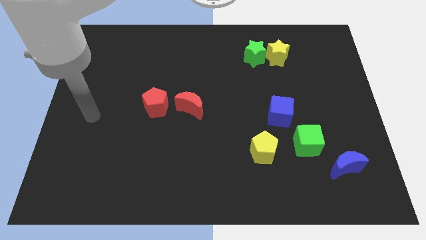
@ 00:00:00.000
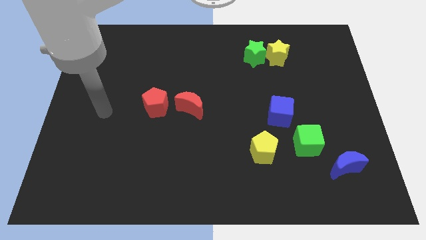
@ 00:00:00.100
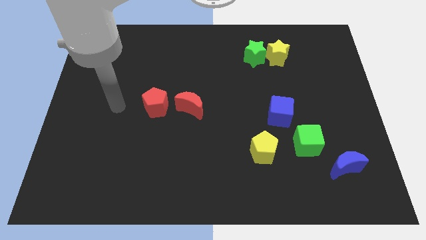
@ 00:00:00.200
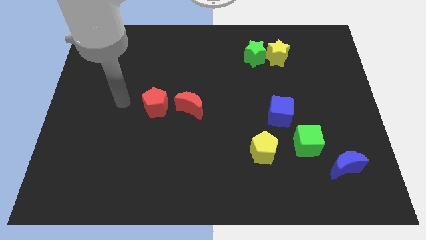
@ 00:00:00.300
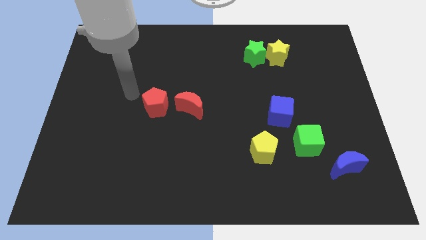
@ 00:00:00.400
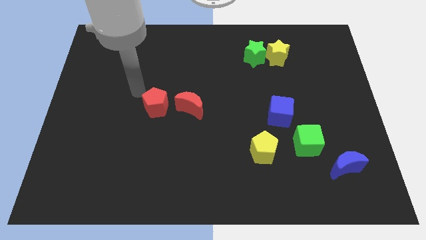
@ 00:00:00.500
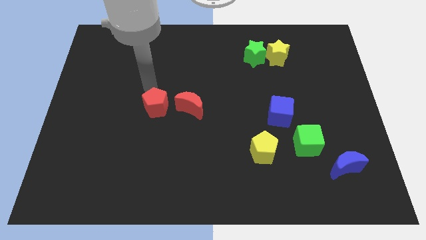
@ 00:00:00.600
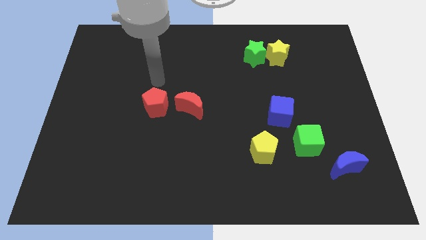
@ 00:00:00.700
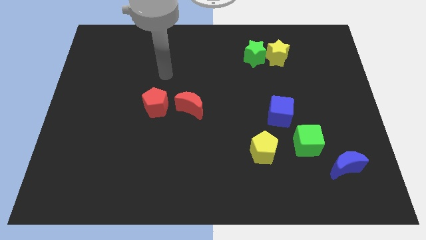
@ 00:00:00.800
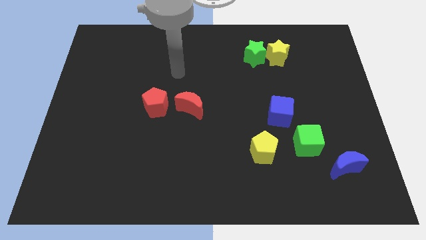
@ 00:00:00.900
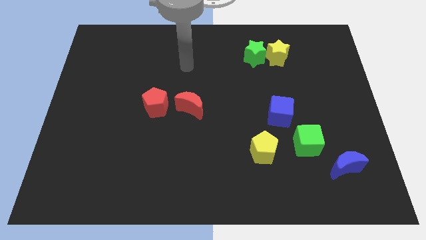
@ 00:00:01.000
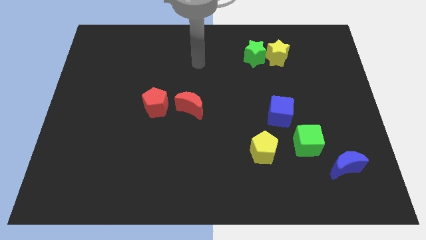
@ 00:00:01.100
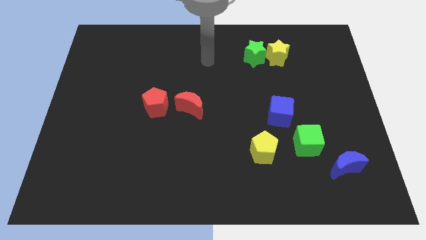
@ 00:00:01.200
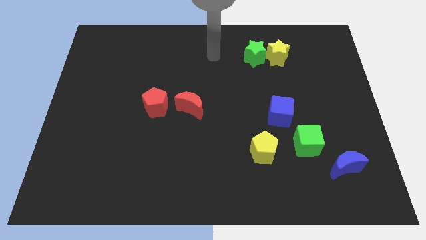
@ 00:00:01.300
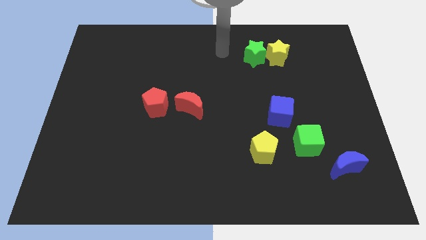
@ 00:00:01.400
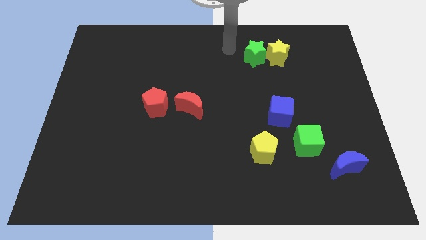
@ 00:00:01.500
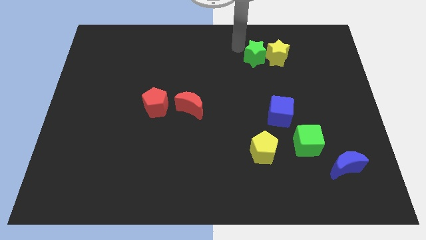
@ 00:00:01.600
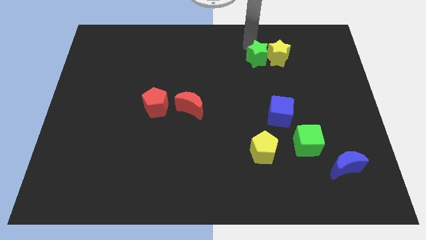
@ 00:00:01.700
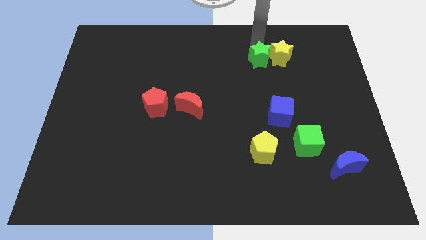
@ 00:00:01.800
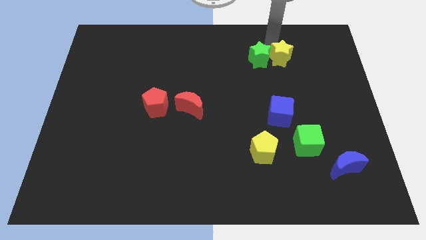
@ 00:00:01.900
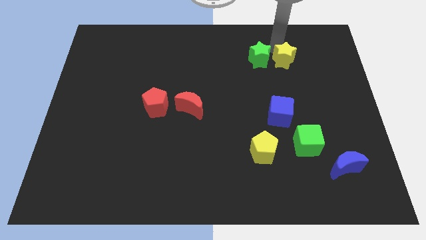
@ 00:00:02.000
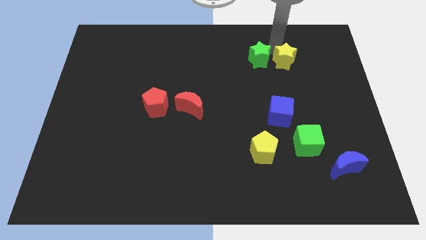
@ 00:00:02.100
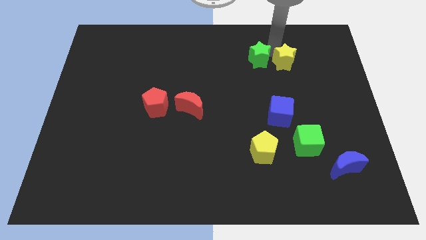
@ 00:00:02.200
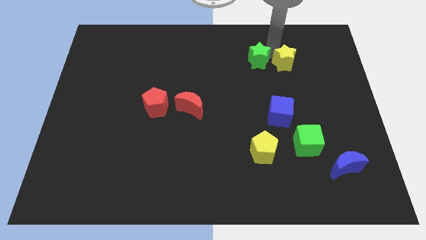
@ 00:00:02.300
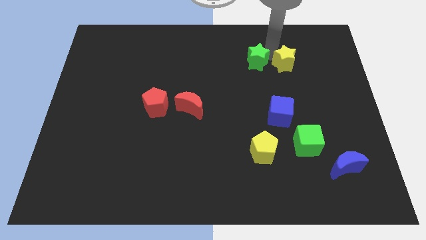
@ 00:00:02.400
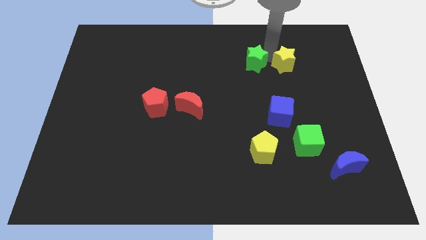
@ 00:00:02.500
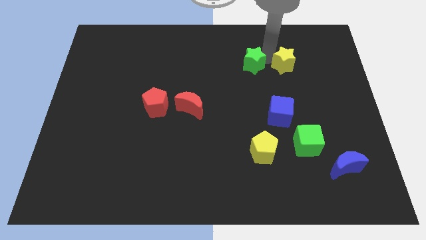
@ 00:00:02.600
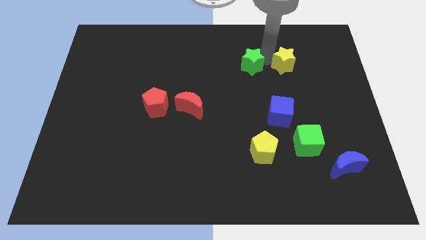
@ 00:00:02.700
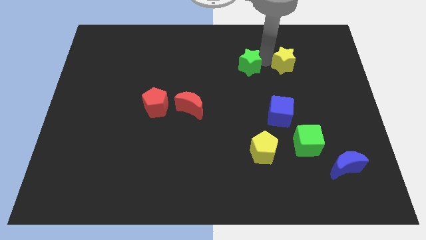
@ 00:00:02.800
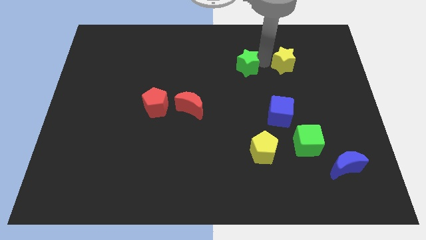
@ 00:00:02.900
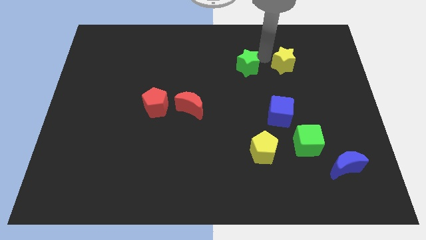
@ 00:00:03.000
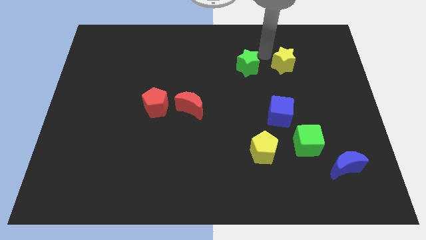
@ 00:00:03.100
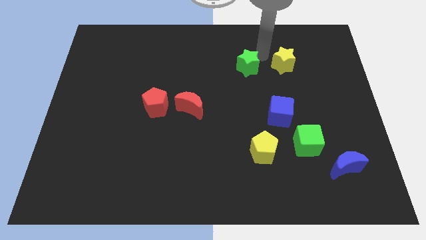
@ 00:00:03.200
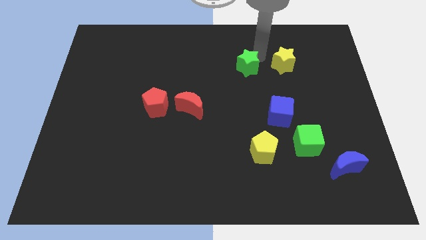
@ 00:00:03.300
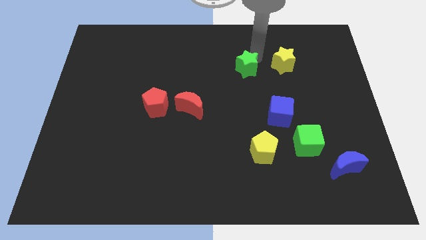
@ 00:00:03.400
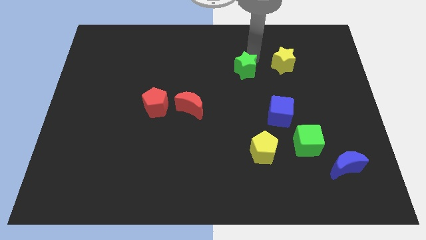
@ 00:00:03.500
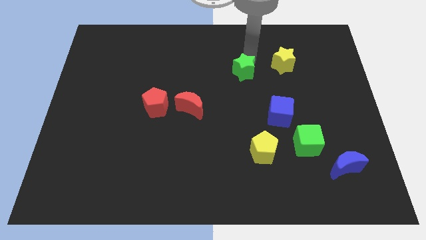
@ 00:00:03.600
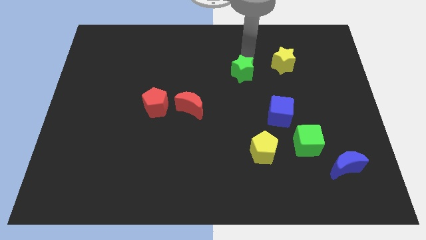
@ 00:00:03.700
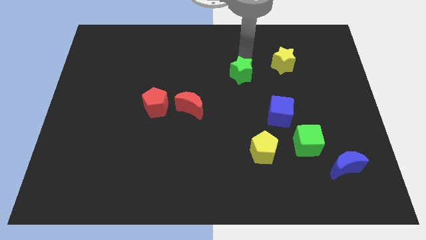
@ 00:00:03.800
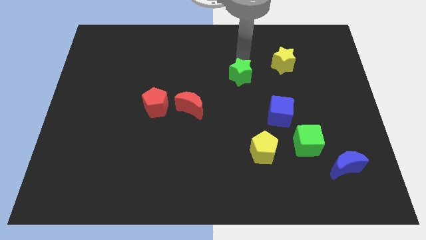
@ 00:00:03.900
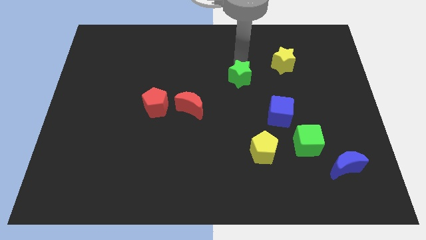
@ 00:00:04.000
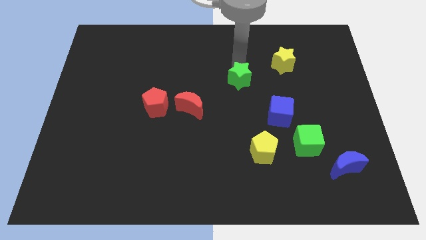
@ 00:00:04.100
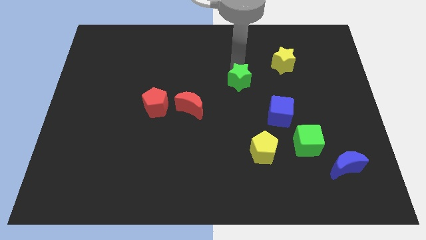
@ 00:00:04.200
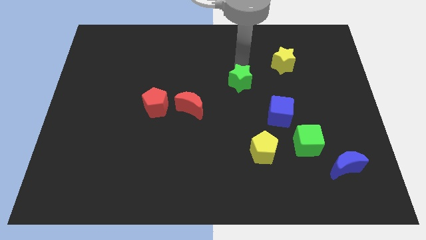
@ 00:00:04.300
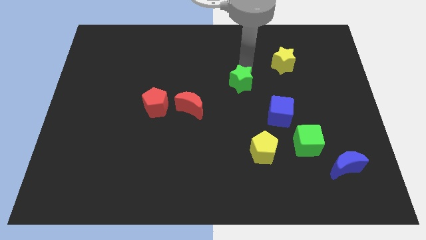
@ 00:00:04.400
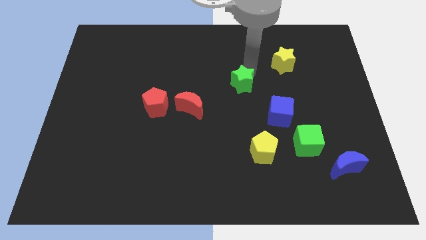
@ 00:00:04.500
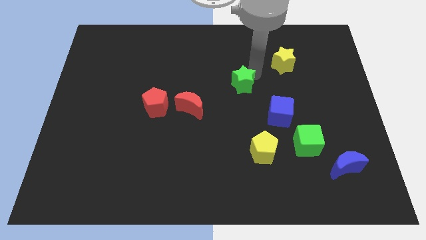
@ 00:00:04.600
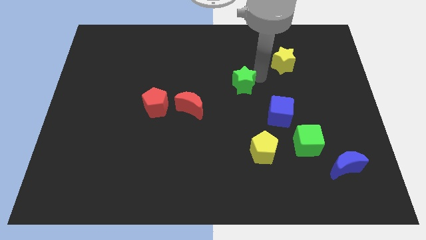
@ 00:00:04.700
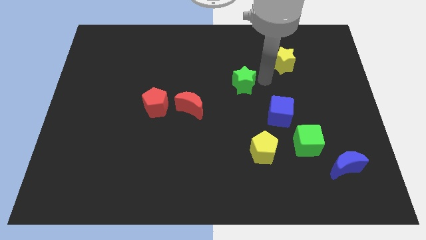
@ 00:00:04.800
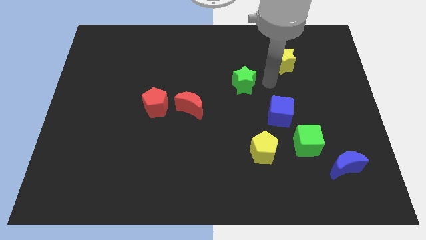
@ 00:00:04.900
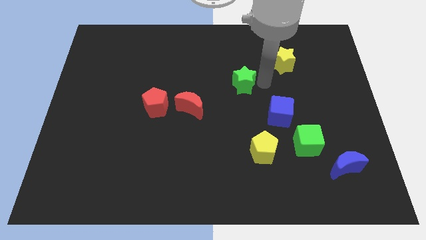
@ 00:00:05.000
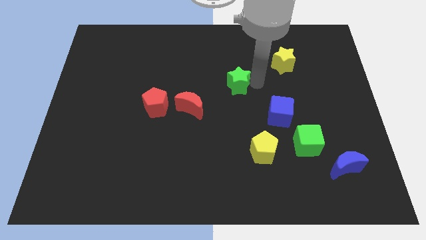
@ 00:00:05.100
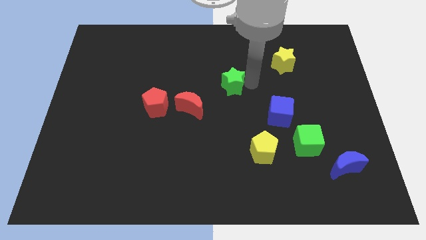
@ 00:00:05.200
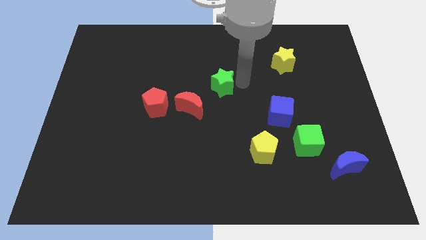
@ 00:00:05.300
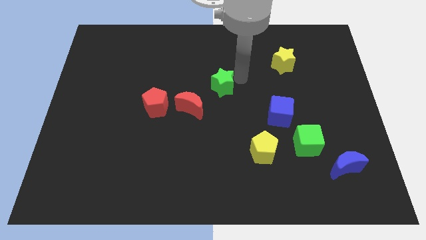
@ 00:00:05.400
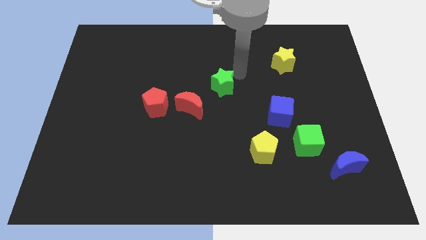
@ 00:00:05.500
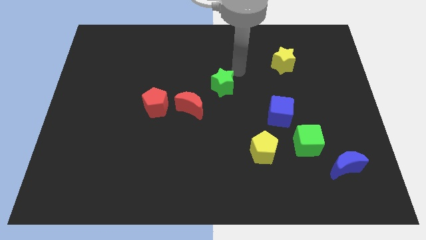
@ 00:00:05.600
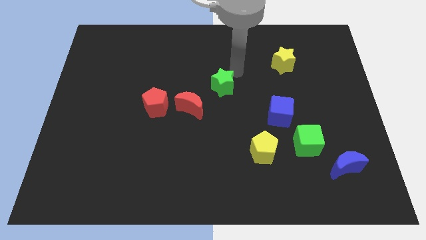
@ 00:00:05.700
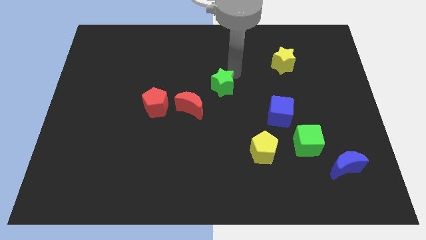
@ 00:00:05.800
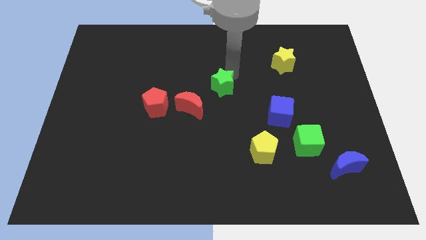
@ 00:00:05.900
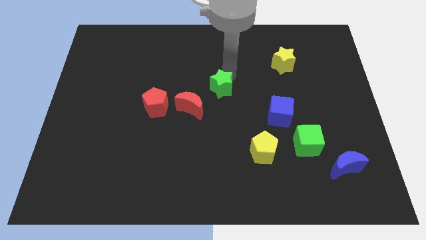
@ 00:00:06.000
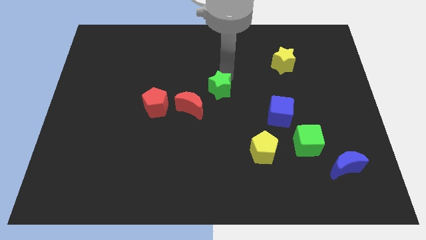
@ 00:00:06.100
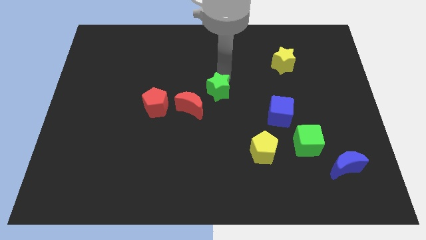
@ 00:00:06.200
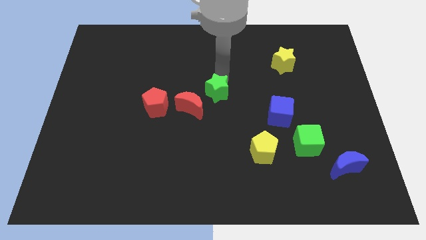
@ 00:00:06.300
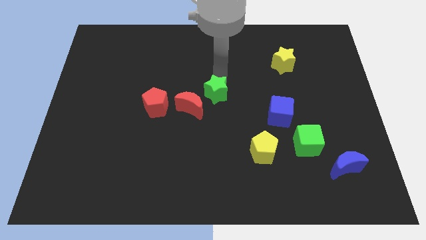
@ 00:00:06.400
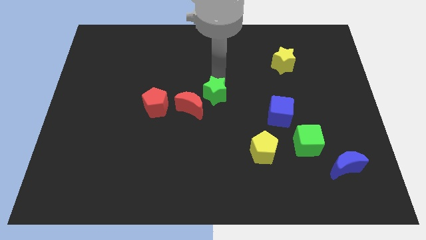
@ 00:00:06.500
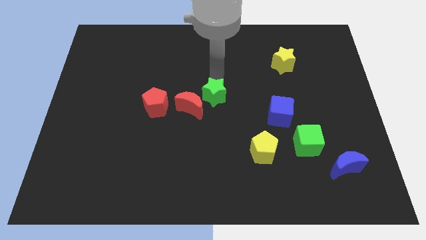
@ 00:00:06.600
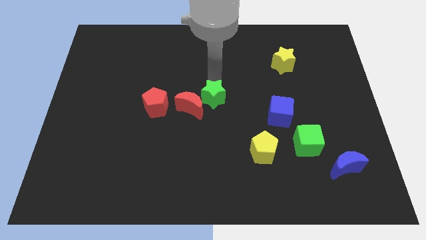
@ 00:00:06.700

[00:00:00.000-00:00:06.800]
slide the green star close to the red moon

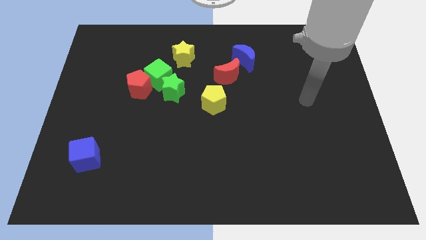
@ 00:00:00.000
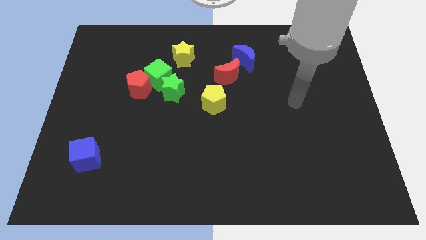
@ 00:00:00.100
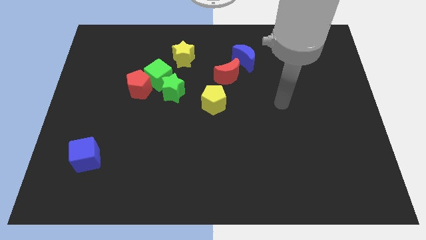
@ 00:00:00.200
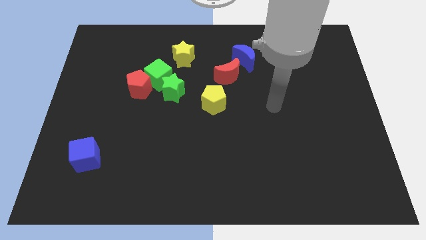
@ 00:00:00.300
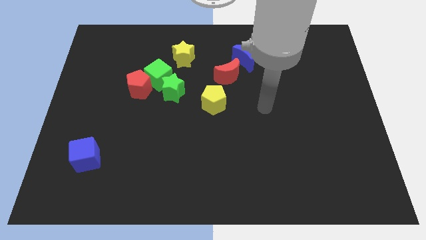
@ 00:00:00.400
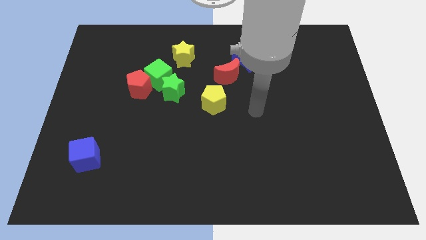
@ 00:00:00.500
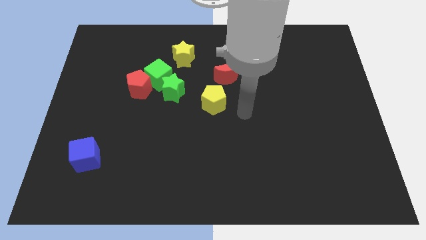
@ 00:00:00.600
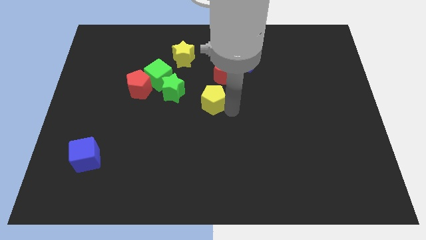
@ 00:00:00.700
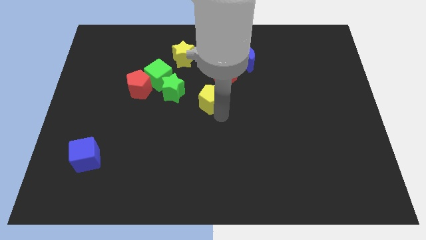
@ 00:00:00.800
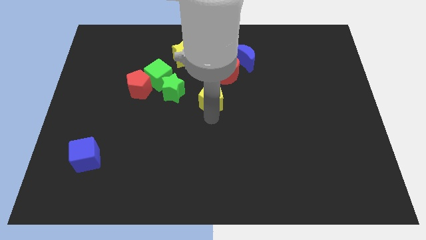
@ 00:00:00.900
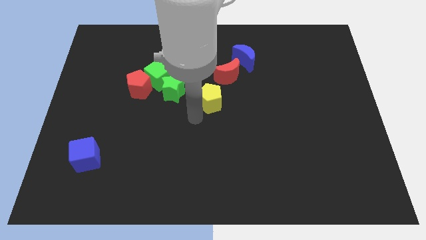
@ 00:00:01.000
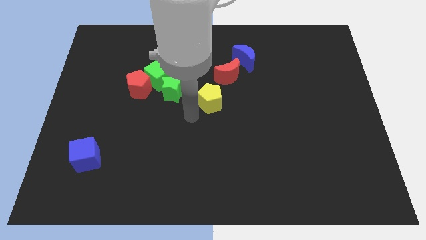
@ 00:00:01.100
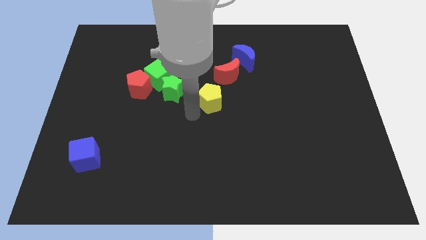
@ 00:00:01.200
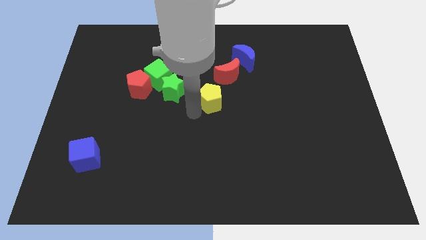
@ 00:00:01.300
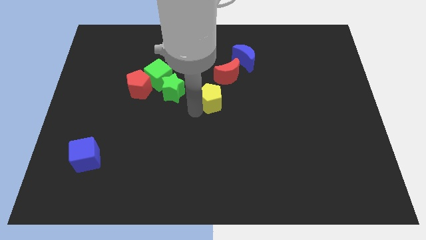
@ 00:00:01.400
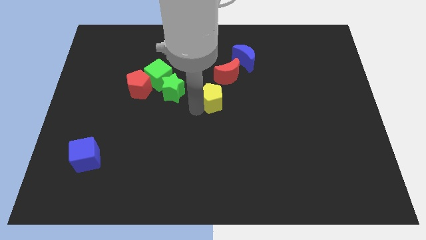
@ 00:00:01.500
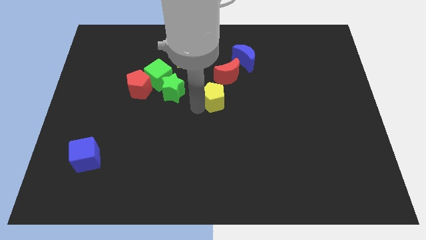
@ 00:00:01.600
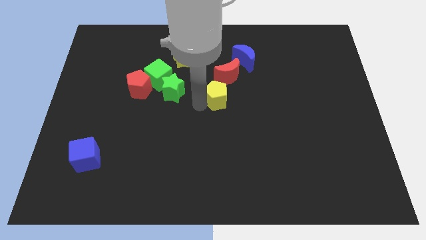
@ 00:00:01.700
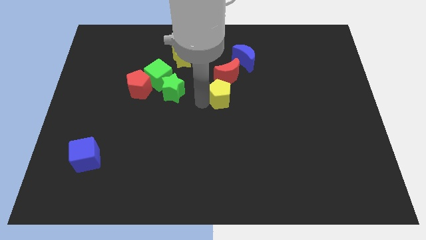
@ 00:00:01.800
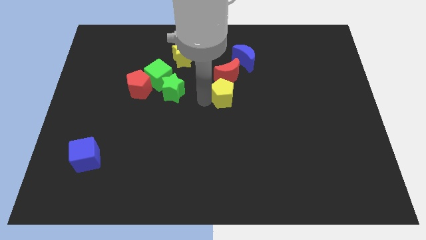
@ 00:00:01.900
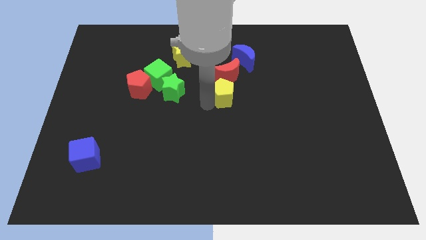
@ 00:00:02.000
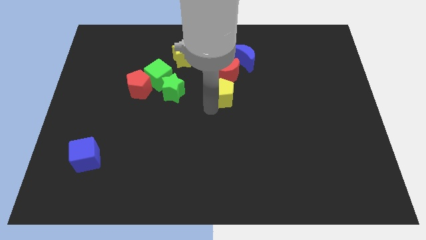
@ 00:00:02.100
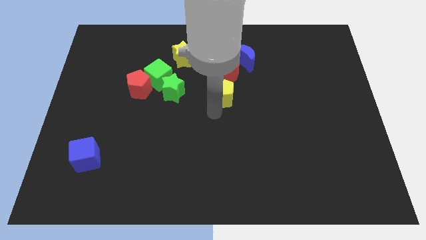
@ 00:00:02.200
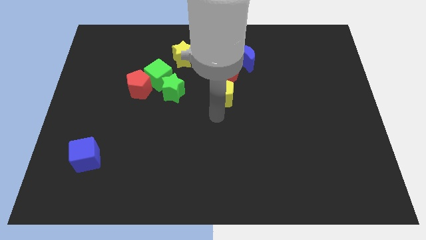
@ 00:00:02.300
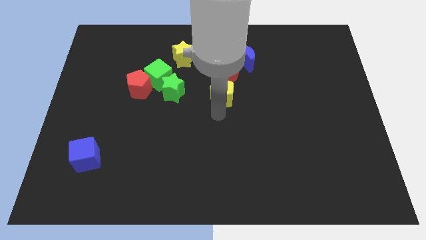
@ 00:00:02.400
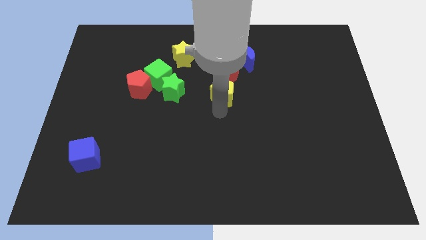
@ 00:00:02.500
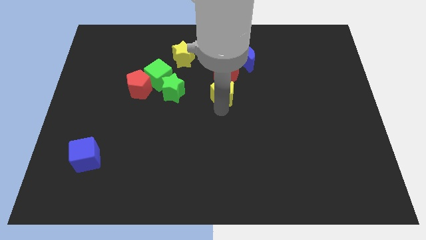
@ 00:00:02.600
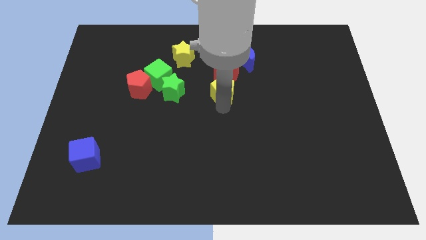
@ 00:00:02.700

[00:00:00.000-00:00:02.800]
push the yellow pentagon next to the red moon
